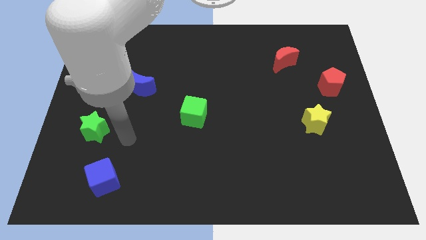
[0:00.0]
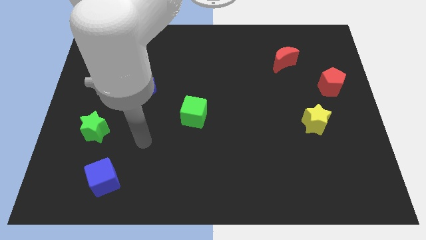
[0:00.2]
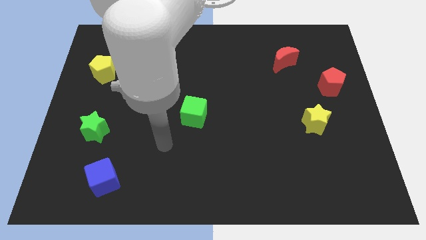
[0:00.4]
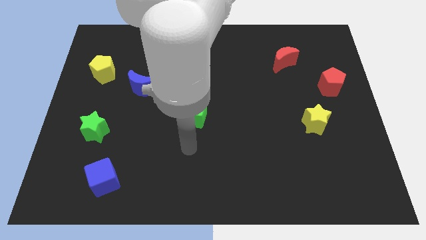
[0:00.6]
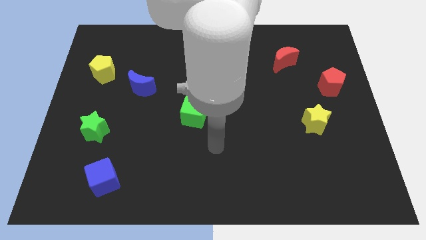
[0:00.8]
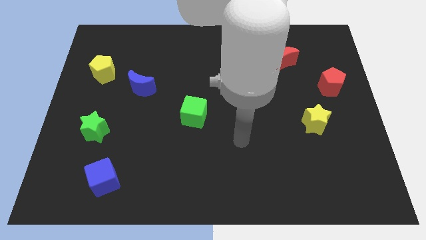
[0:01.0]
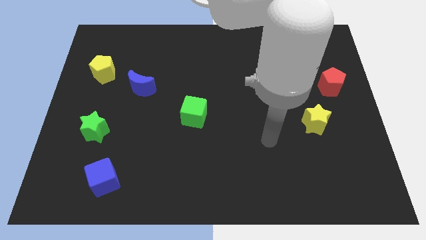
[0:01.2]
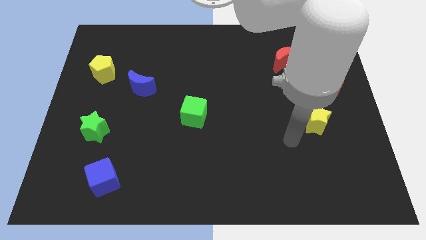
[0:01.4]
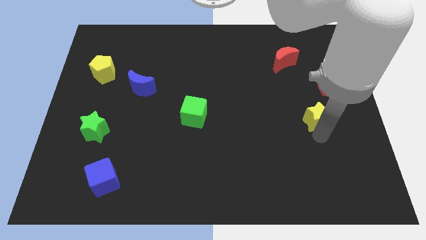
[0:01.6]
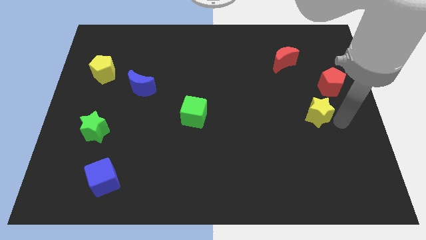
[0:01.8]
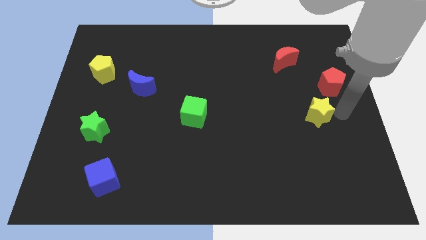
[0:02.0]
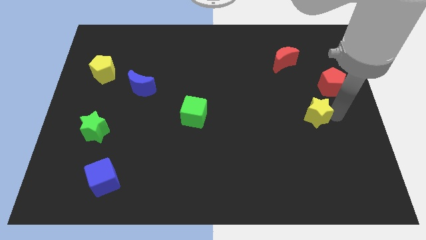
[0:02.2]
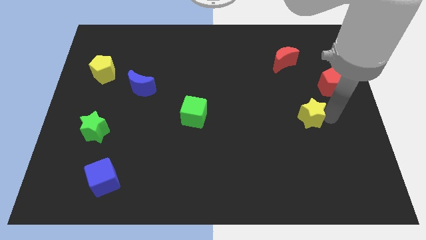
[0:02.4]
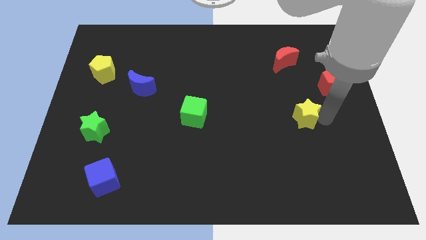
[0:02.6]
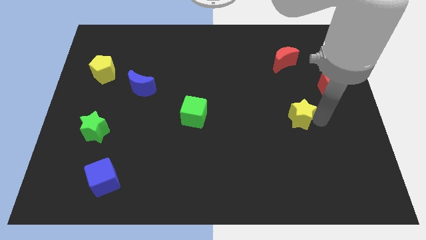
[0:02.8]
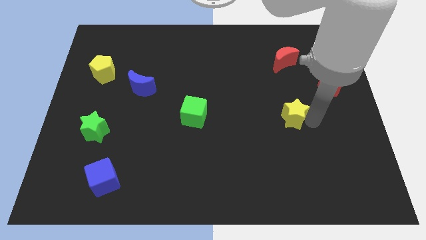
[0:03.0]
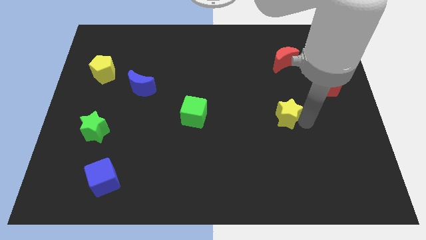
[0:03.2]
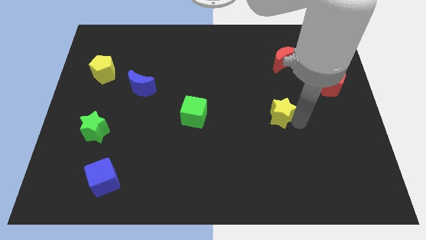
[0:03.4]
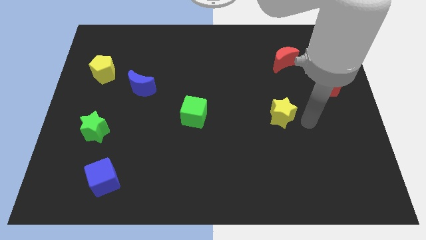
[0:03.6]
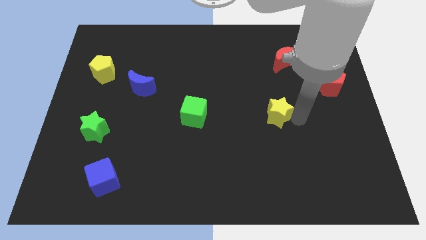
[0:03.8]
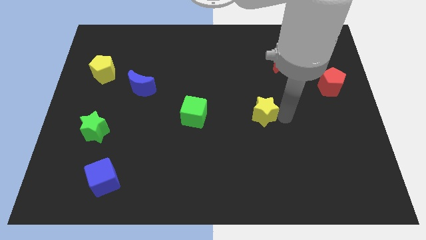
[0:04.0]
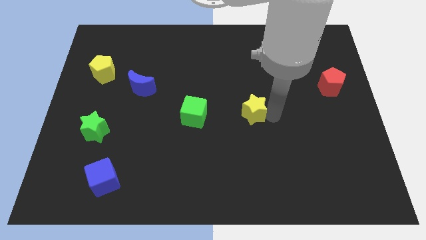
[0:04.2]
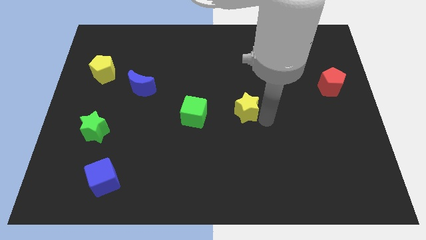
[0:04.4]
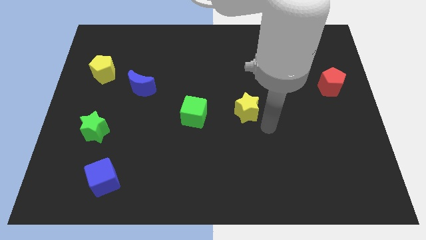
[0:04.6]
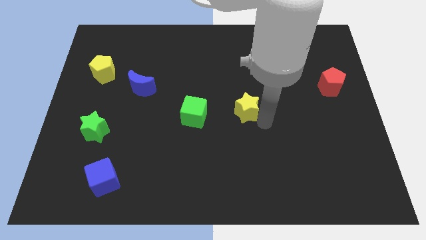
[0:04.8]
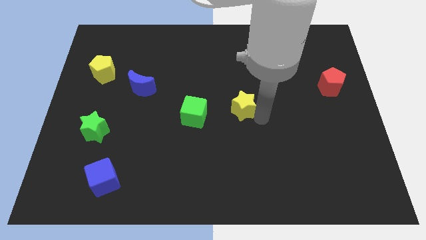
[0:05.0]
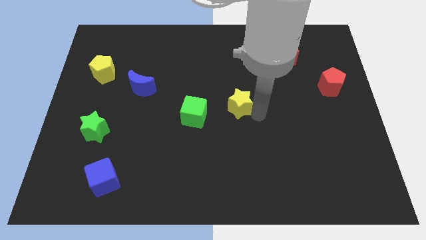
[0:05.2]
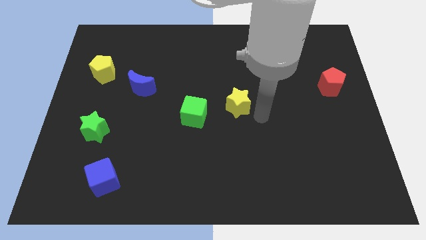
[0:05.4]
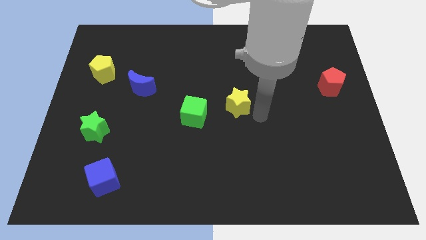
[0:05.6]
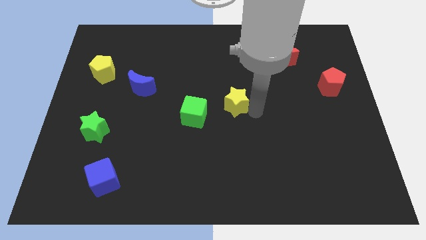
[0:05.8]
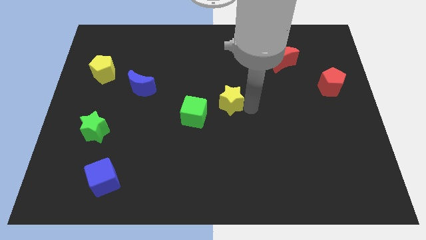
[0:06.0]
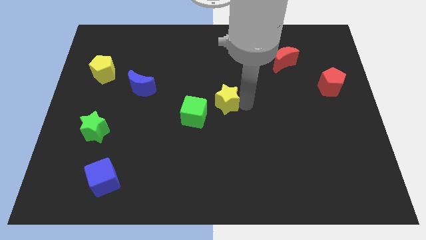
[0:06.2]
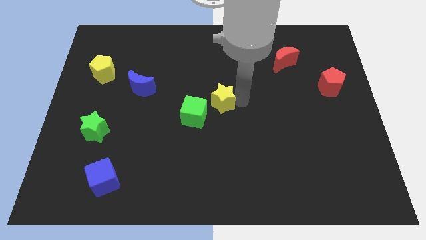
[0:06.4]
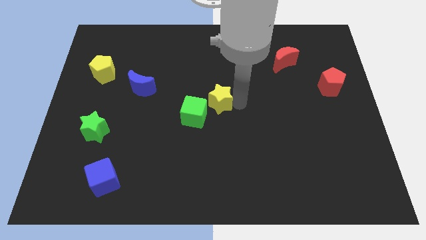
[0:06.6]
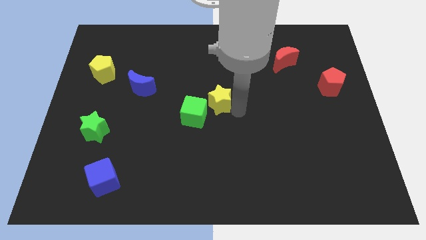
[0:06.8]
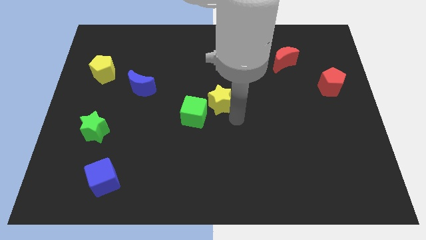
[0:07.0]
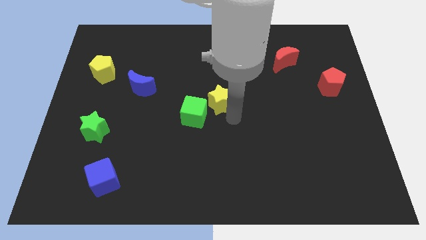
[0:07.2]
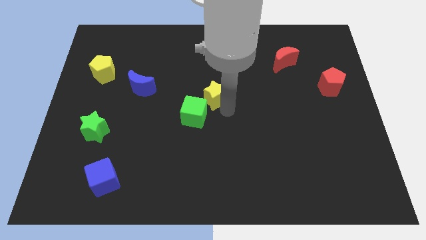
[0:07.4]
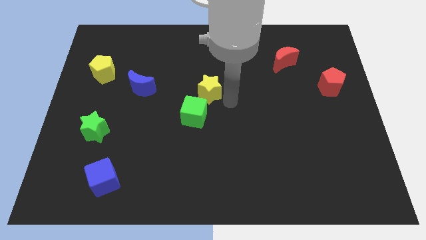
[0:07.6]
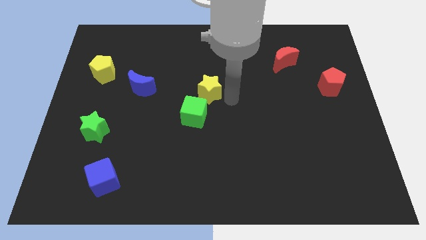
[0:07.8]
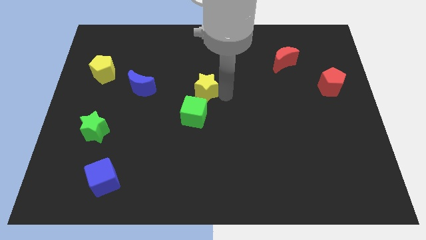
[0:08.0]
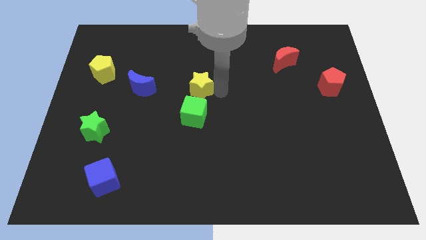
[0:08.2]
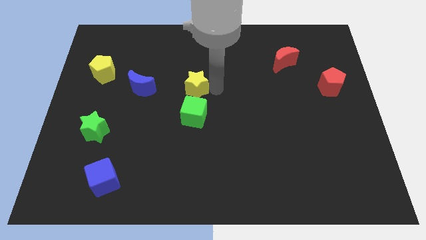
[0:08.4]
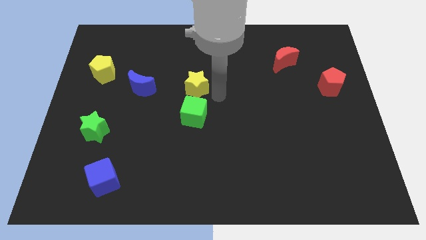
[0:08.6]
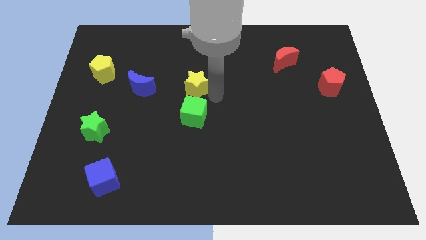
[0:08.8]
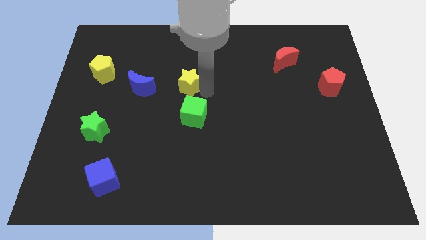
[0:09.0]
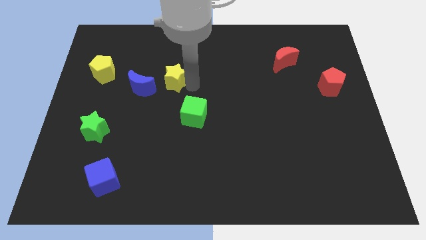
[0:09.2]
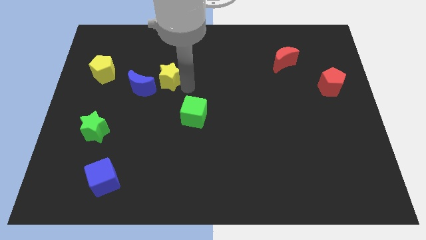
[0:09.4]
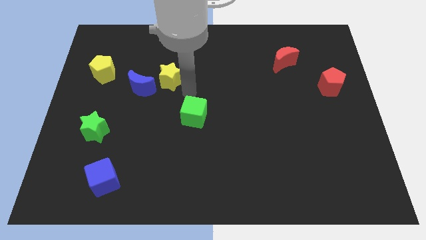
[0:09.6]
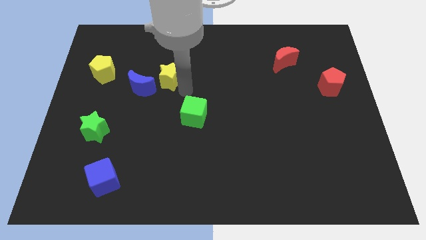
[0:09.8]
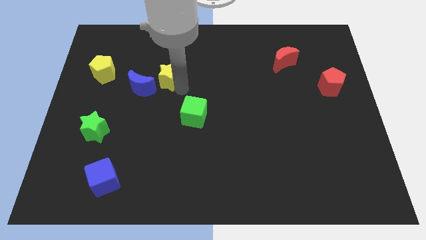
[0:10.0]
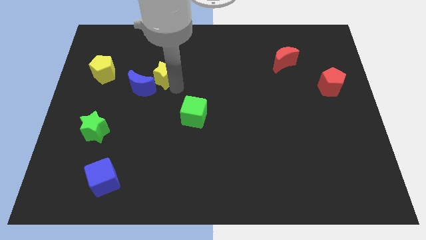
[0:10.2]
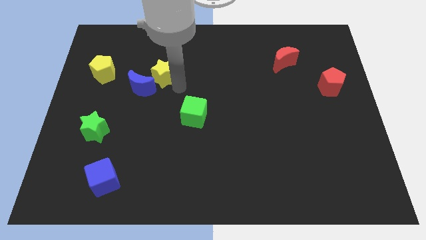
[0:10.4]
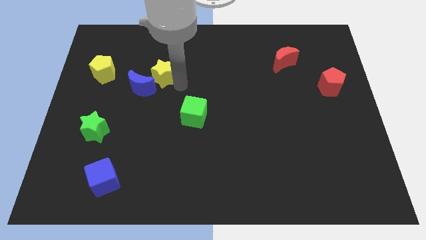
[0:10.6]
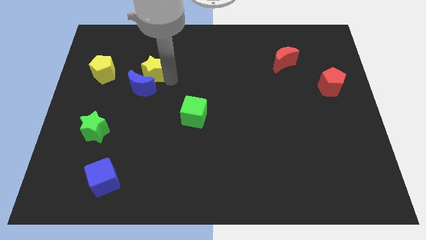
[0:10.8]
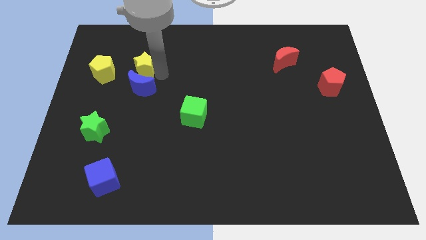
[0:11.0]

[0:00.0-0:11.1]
put the yellow star to the top left of the blue moon

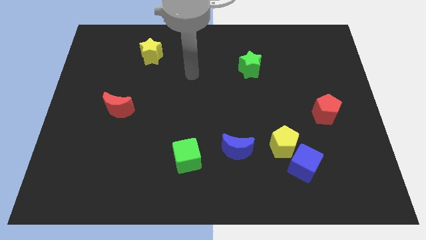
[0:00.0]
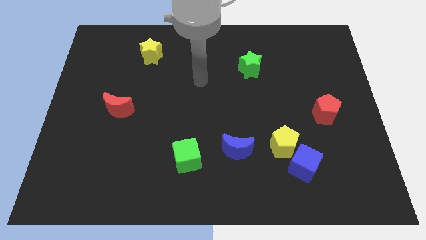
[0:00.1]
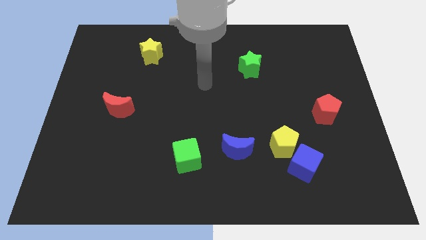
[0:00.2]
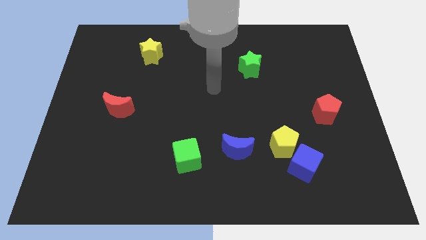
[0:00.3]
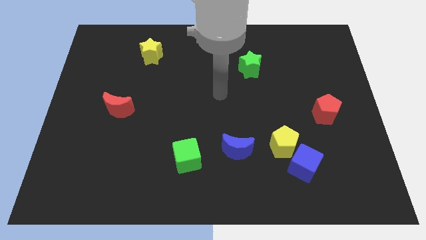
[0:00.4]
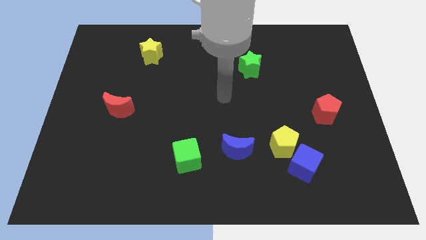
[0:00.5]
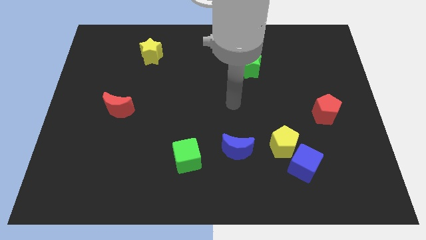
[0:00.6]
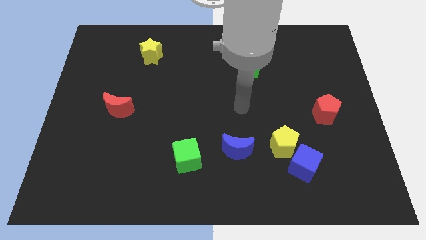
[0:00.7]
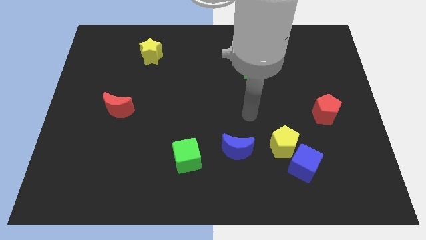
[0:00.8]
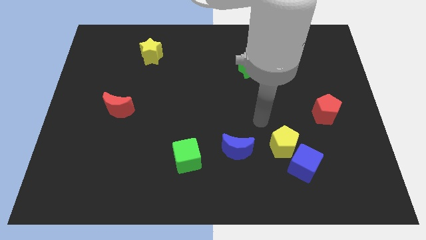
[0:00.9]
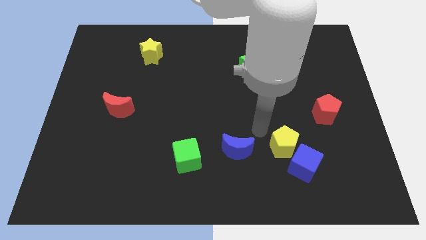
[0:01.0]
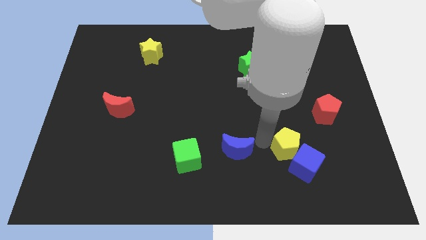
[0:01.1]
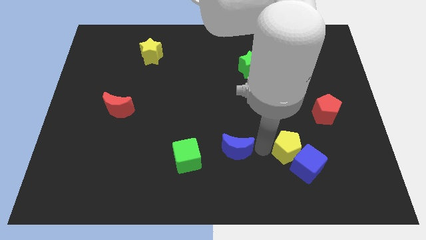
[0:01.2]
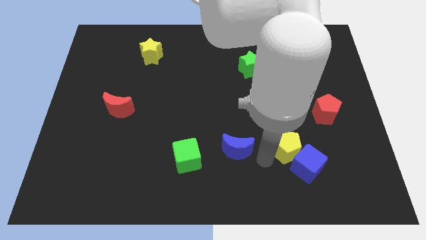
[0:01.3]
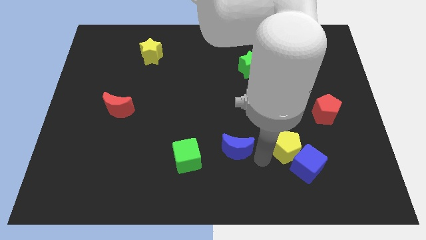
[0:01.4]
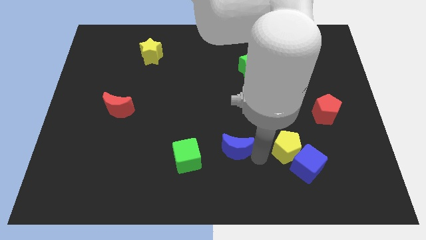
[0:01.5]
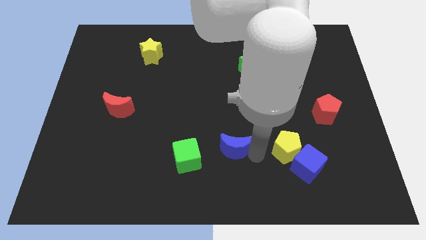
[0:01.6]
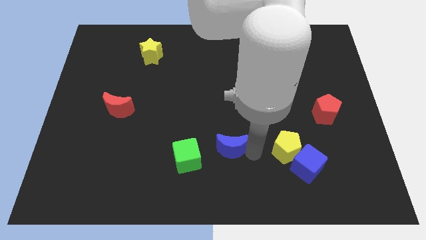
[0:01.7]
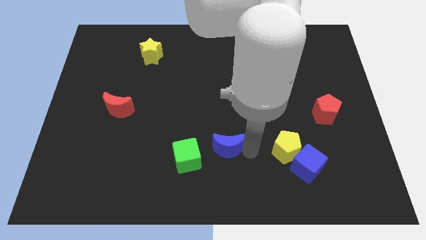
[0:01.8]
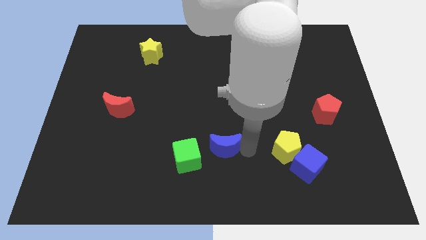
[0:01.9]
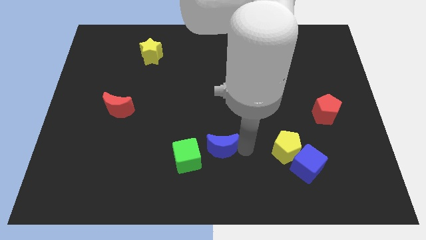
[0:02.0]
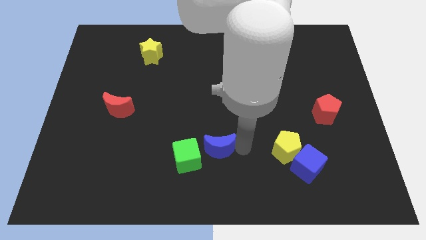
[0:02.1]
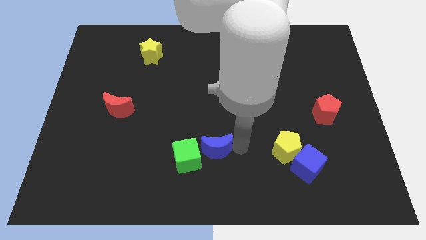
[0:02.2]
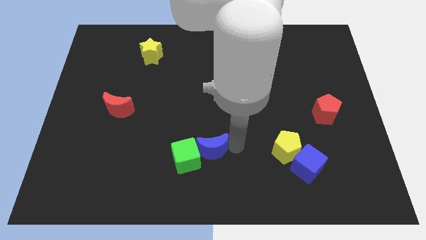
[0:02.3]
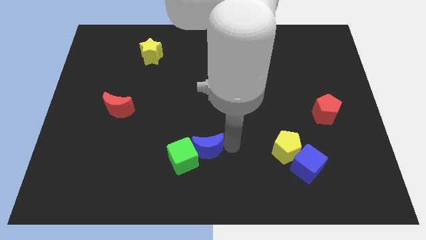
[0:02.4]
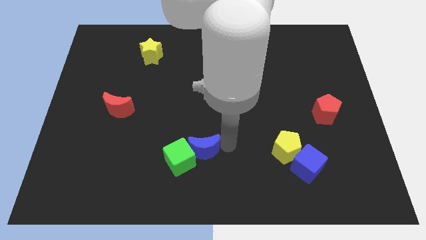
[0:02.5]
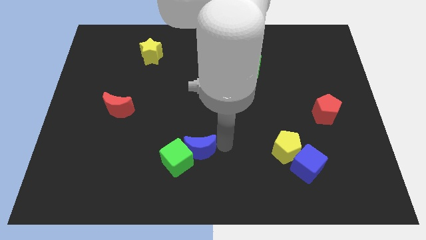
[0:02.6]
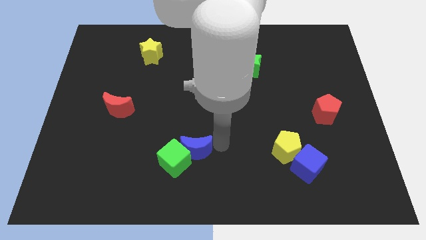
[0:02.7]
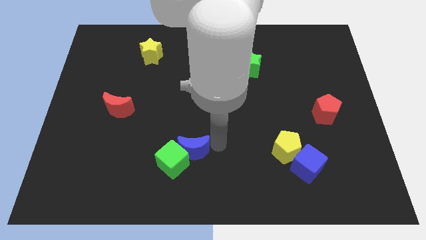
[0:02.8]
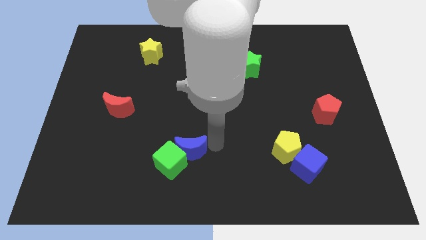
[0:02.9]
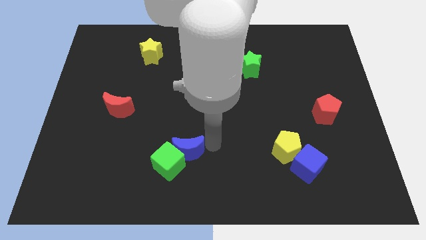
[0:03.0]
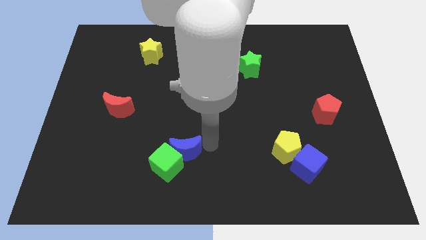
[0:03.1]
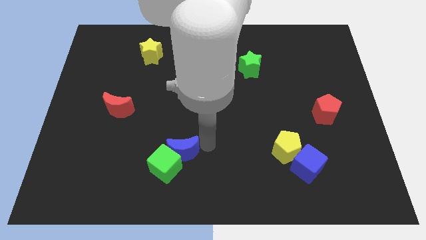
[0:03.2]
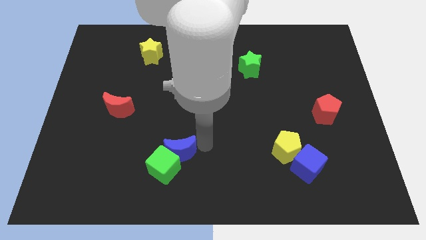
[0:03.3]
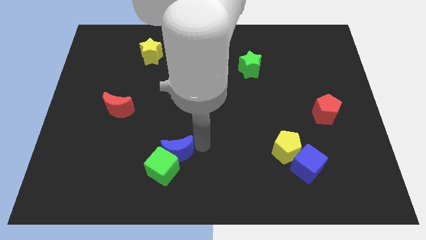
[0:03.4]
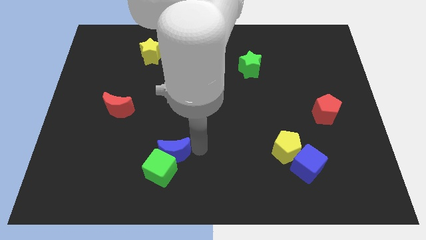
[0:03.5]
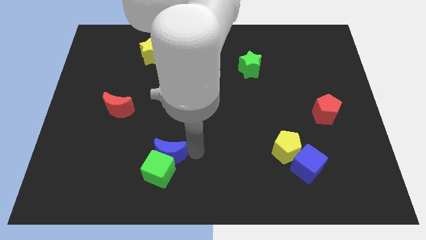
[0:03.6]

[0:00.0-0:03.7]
move the blue moon to the top left side of the green cube
